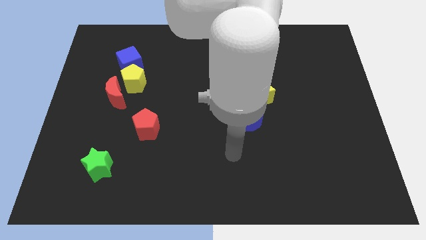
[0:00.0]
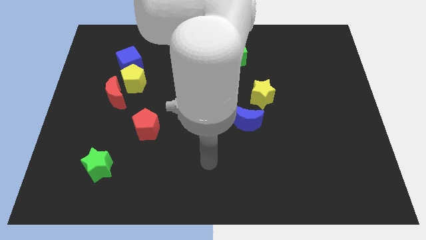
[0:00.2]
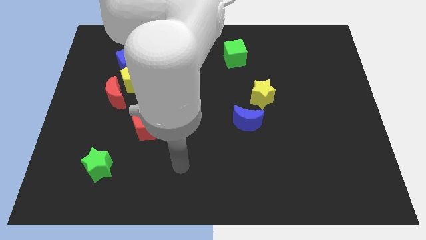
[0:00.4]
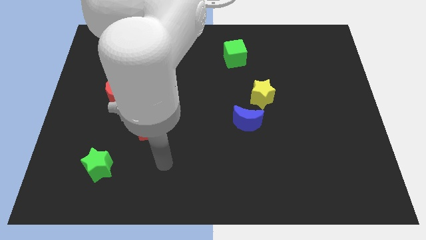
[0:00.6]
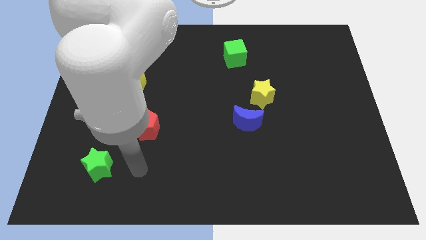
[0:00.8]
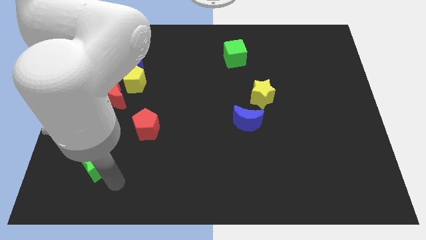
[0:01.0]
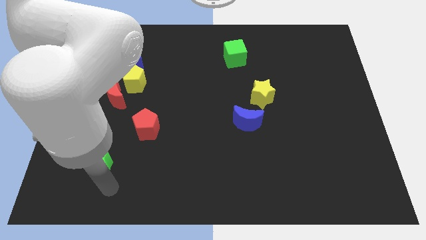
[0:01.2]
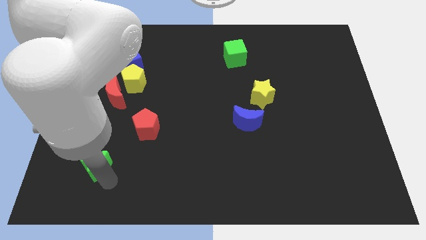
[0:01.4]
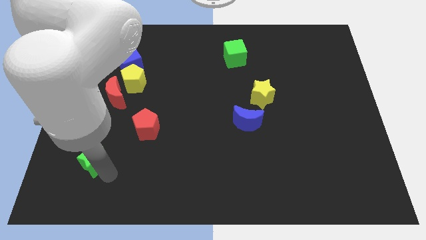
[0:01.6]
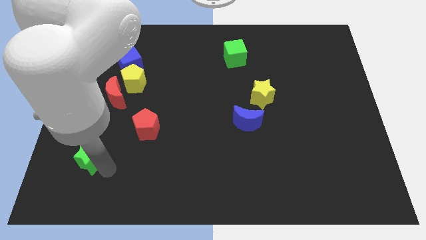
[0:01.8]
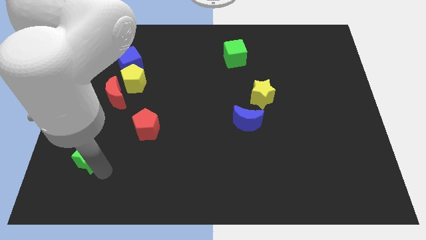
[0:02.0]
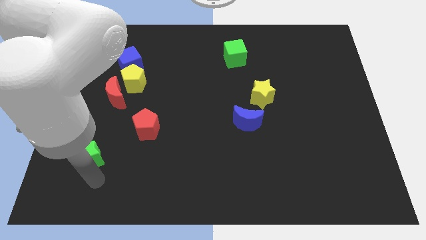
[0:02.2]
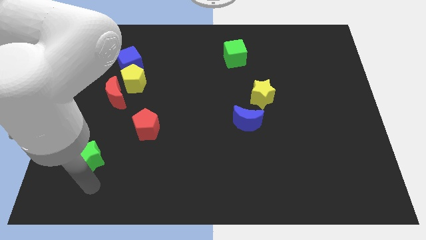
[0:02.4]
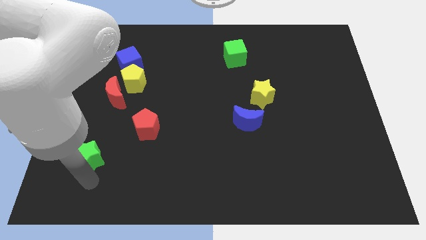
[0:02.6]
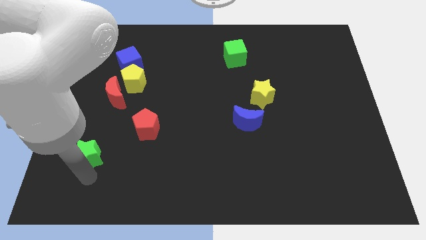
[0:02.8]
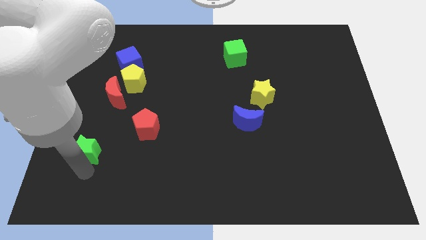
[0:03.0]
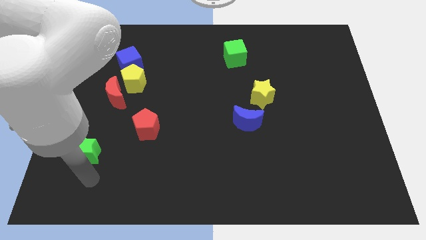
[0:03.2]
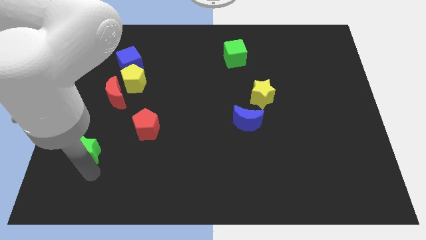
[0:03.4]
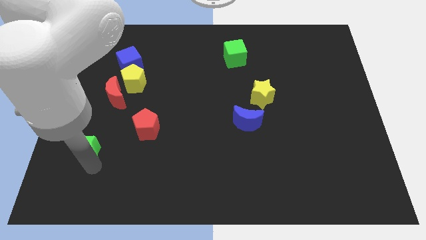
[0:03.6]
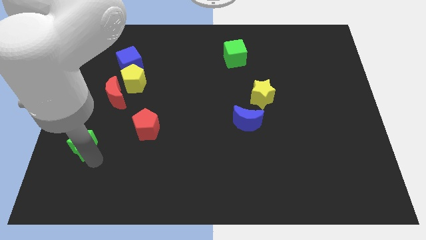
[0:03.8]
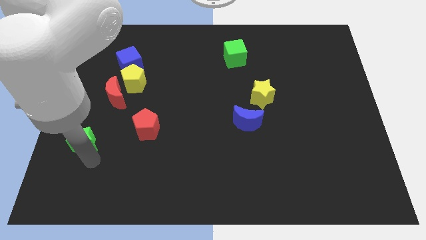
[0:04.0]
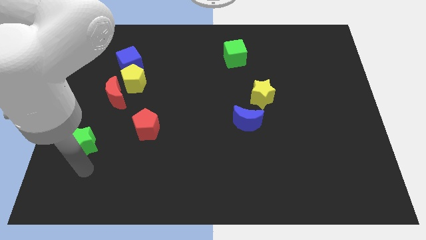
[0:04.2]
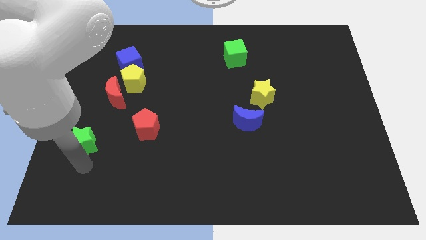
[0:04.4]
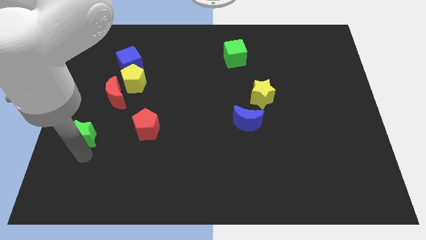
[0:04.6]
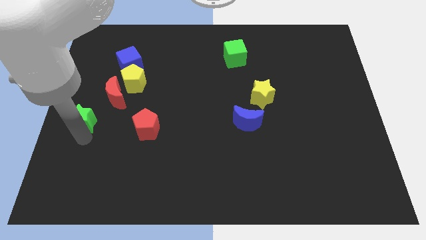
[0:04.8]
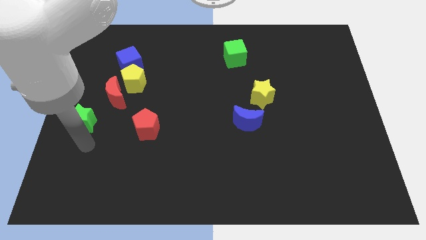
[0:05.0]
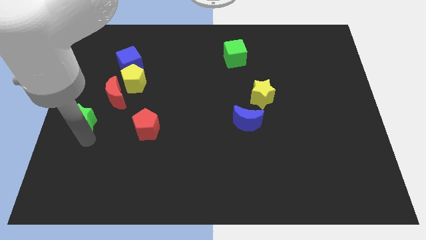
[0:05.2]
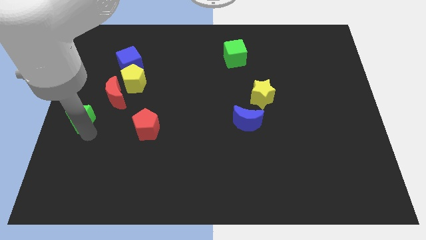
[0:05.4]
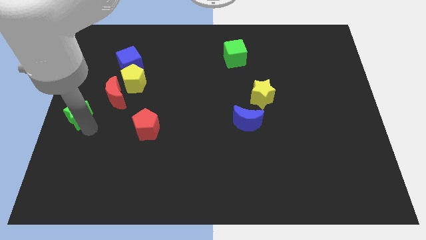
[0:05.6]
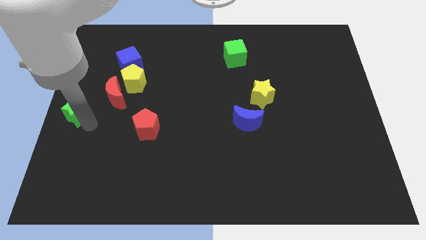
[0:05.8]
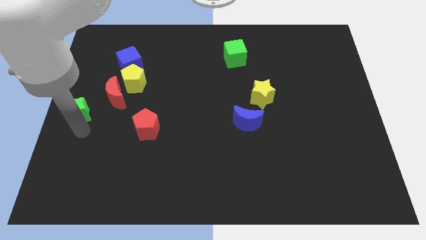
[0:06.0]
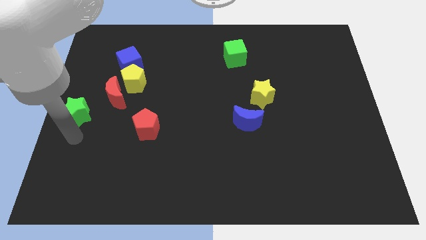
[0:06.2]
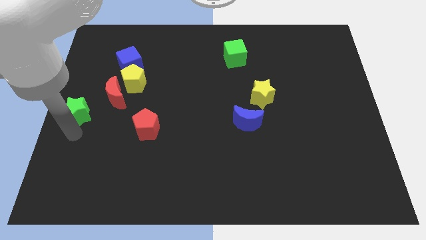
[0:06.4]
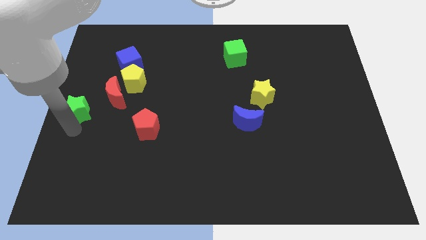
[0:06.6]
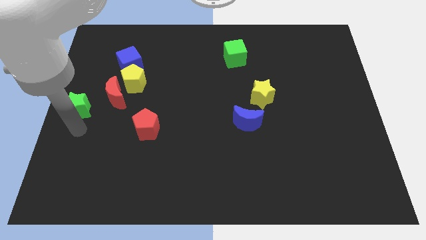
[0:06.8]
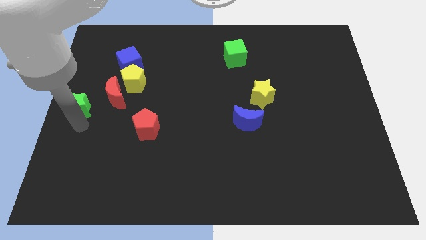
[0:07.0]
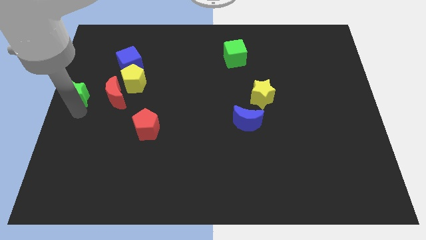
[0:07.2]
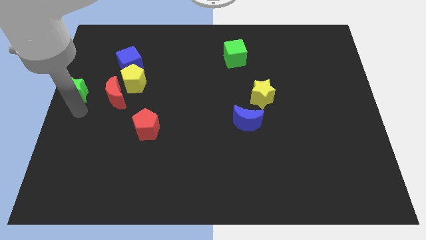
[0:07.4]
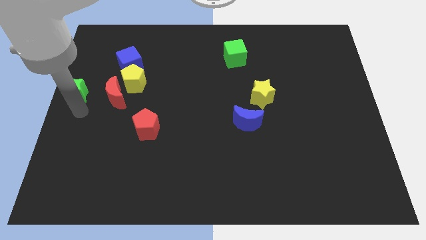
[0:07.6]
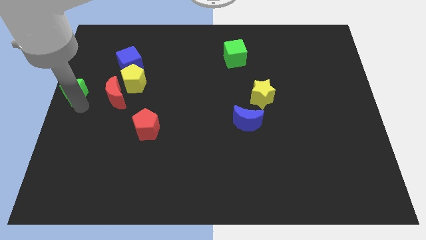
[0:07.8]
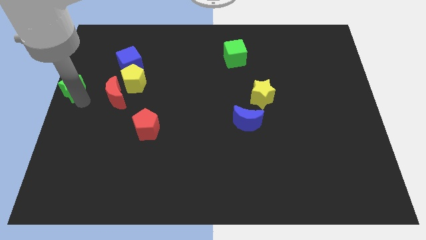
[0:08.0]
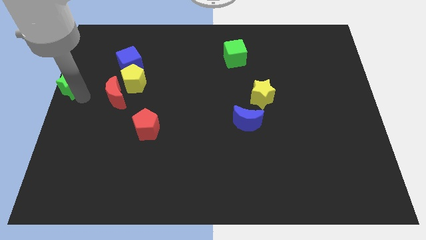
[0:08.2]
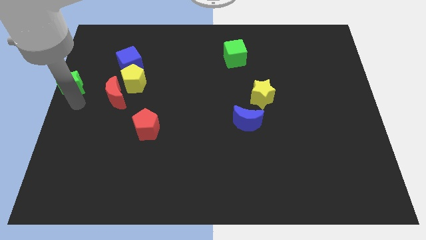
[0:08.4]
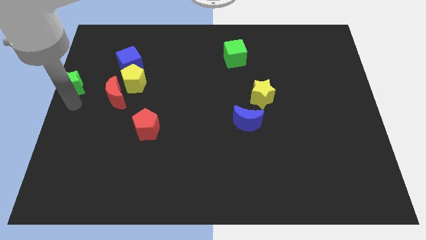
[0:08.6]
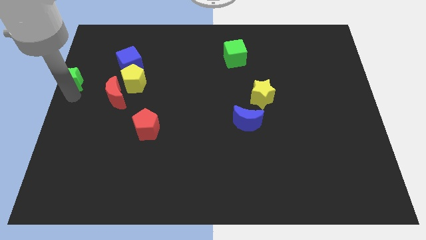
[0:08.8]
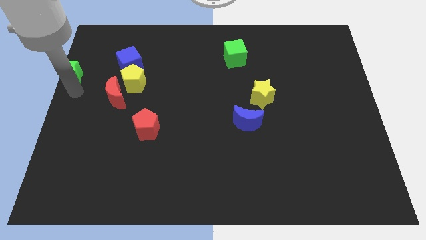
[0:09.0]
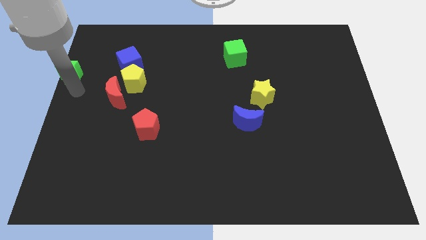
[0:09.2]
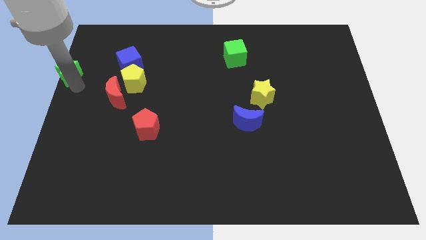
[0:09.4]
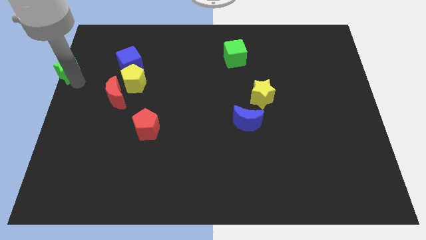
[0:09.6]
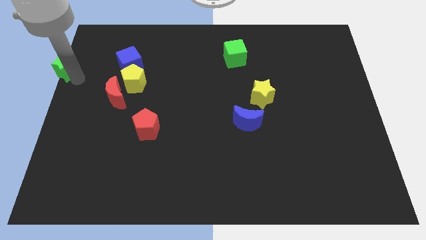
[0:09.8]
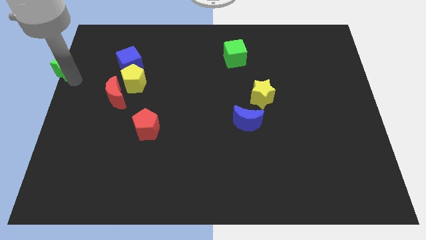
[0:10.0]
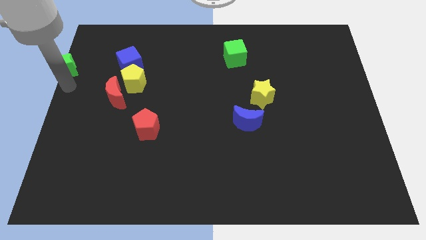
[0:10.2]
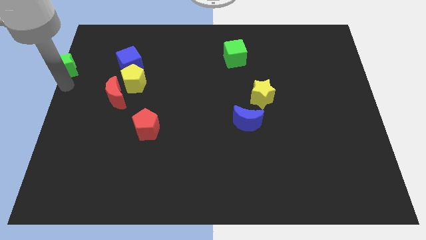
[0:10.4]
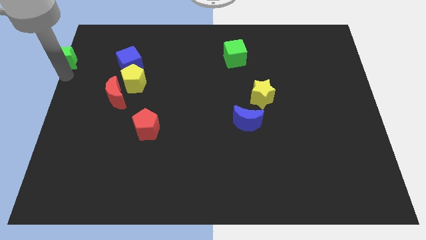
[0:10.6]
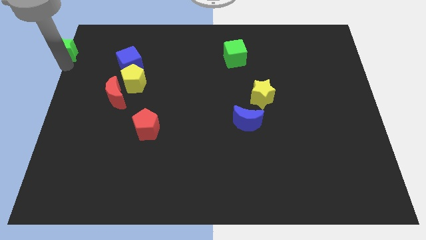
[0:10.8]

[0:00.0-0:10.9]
put the green star to the top left corner

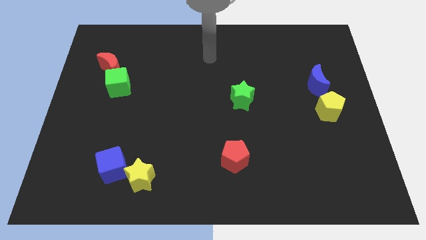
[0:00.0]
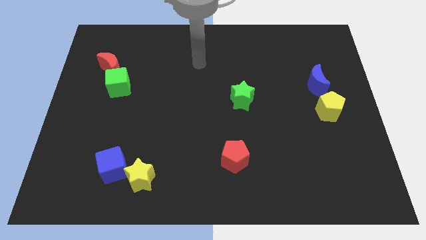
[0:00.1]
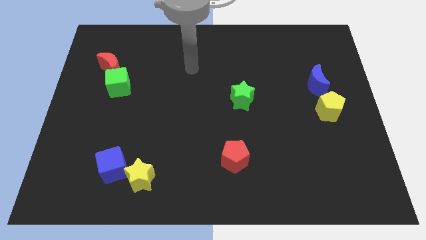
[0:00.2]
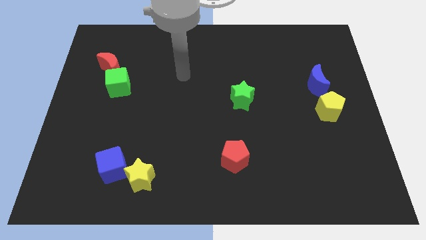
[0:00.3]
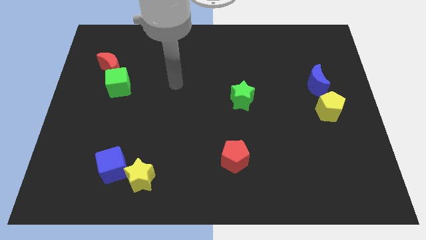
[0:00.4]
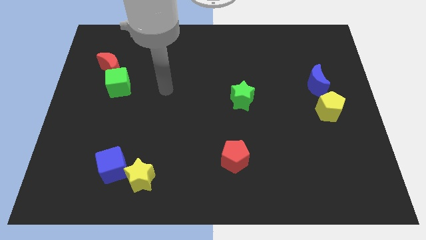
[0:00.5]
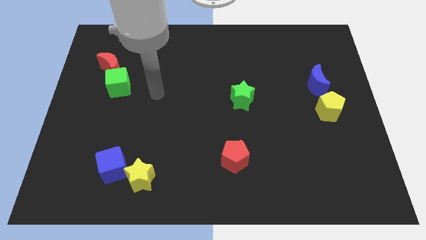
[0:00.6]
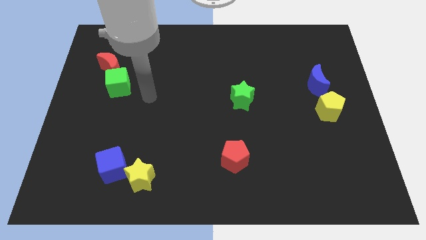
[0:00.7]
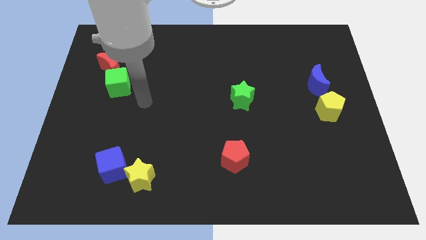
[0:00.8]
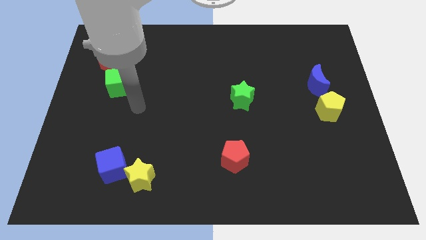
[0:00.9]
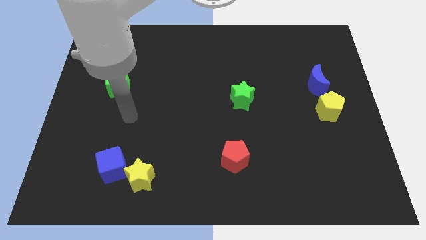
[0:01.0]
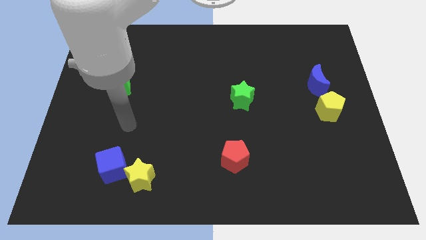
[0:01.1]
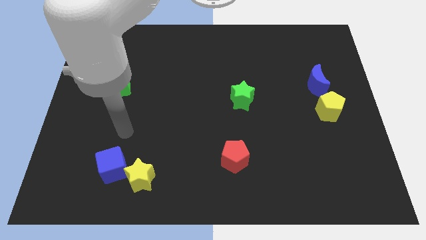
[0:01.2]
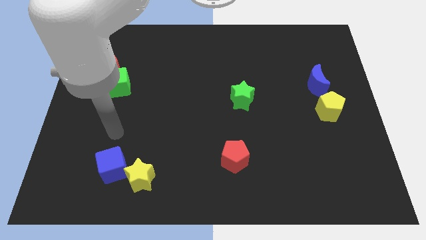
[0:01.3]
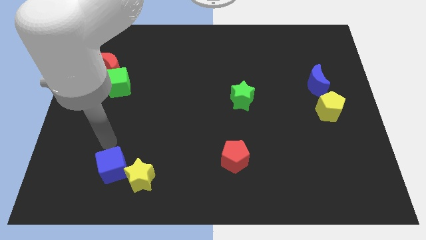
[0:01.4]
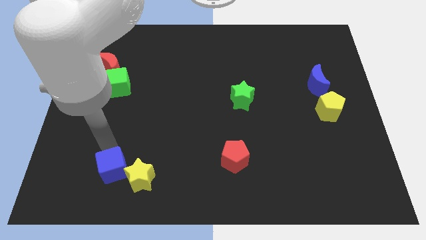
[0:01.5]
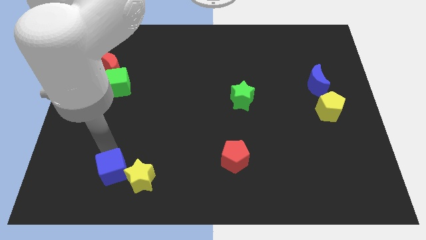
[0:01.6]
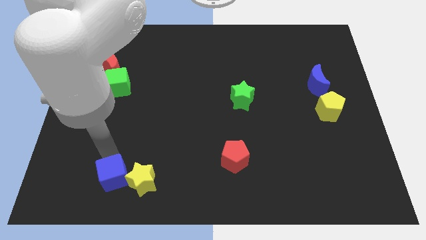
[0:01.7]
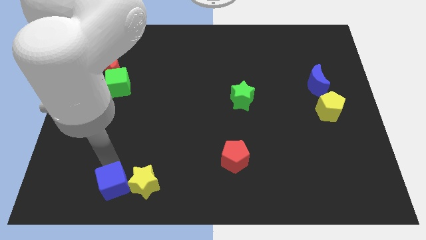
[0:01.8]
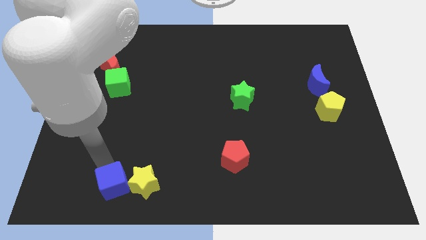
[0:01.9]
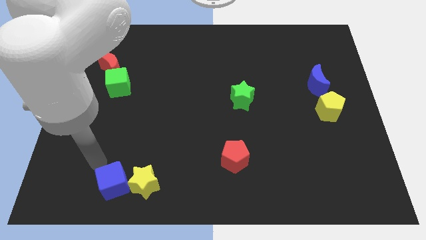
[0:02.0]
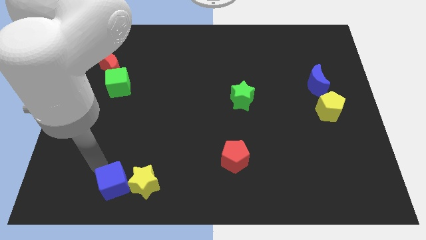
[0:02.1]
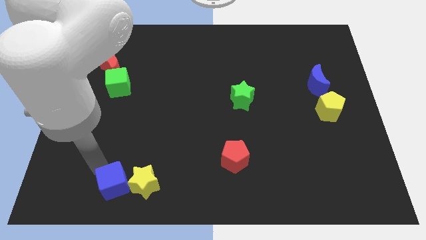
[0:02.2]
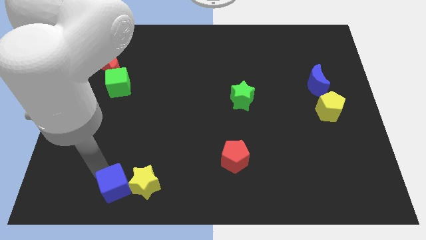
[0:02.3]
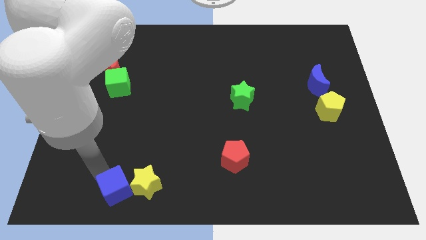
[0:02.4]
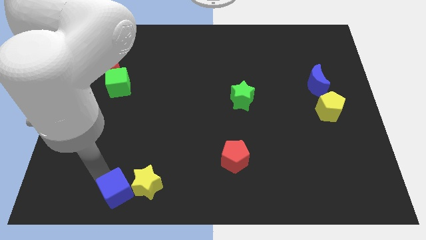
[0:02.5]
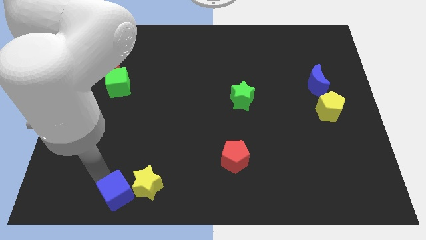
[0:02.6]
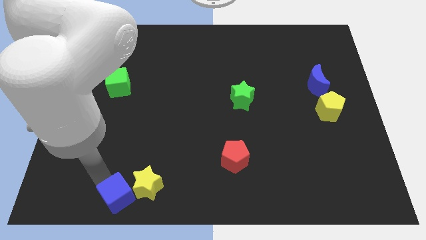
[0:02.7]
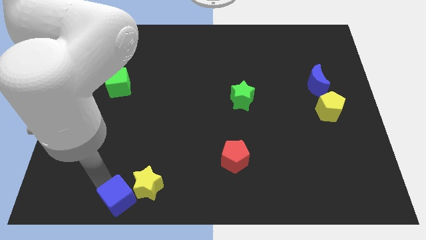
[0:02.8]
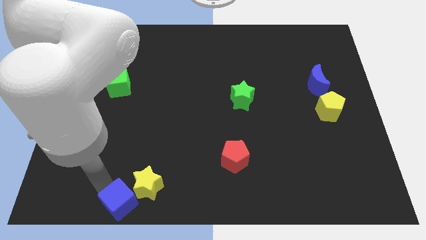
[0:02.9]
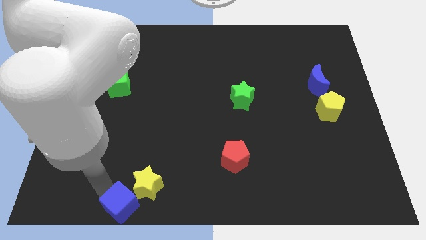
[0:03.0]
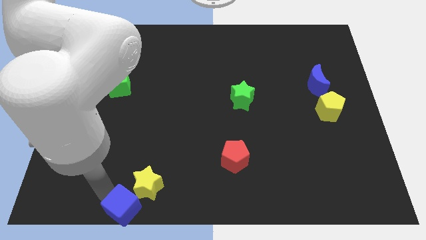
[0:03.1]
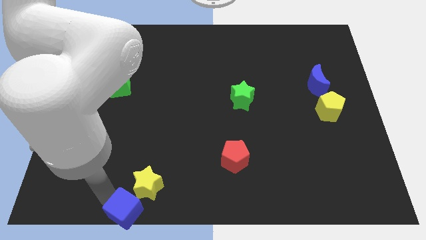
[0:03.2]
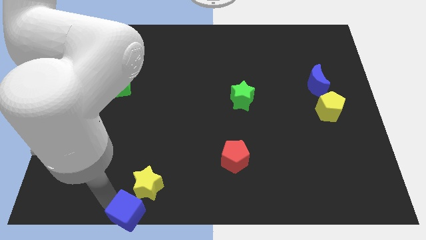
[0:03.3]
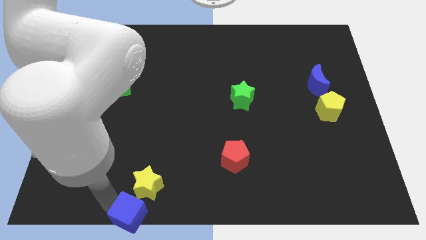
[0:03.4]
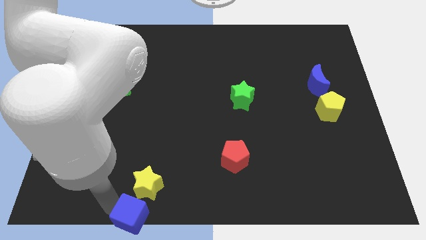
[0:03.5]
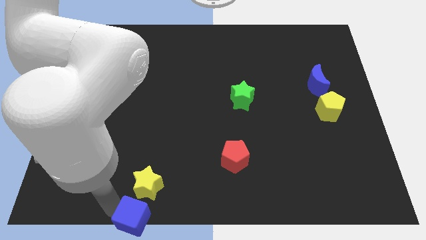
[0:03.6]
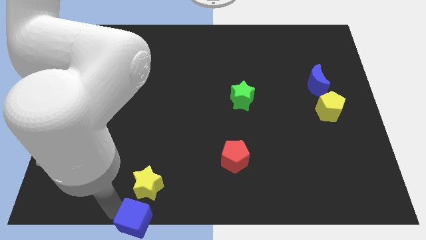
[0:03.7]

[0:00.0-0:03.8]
push the blue cube to the bottom
